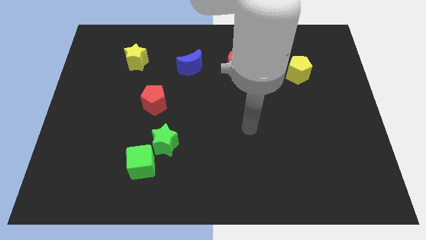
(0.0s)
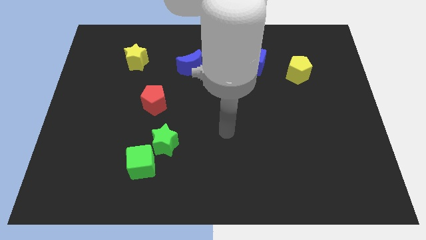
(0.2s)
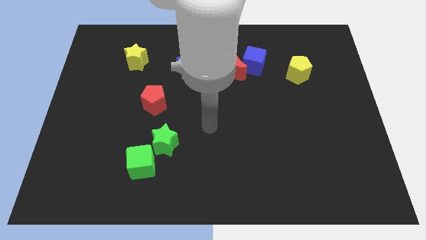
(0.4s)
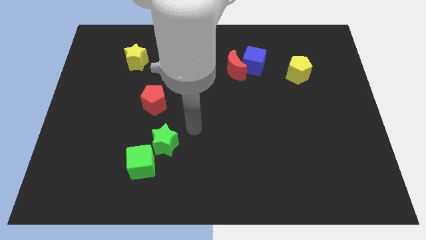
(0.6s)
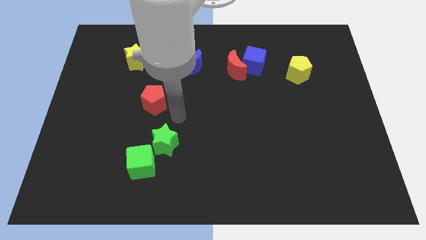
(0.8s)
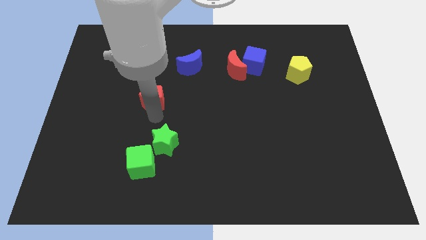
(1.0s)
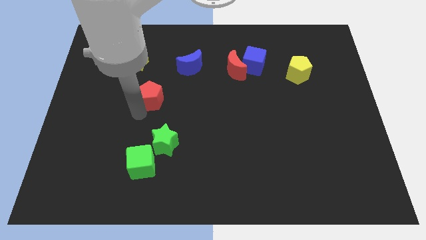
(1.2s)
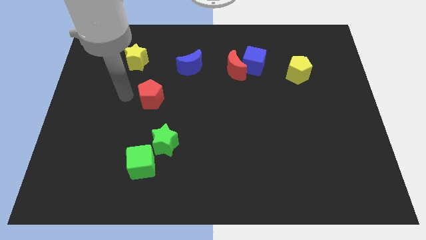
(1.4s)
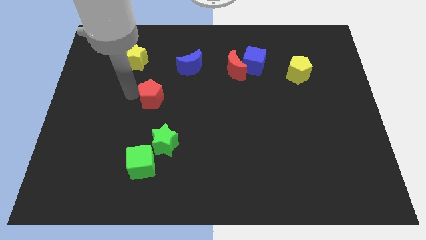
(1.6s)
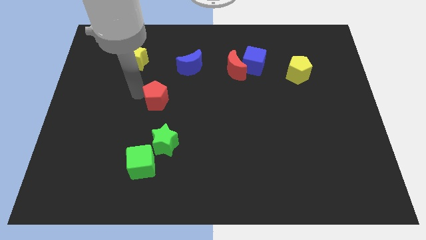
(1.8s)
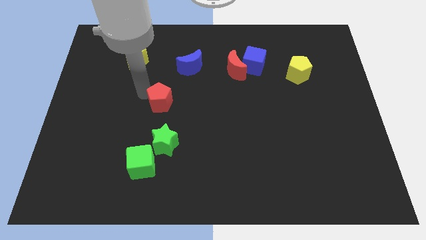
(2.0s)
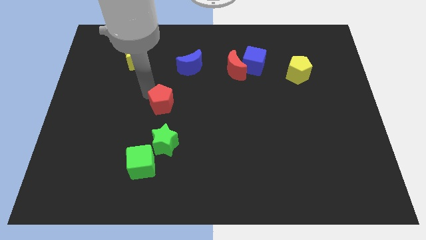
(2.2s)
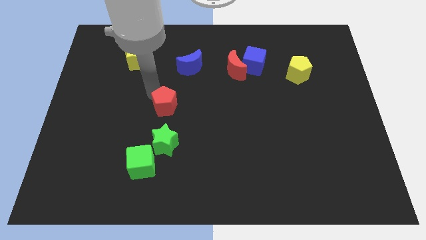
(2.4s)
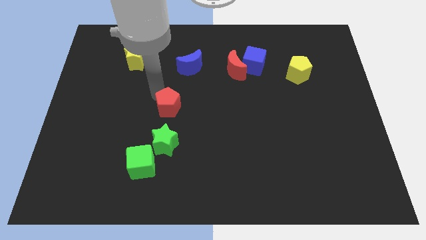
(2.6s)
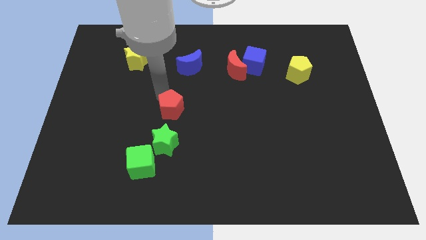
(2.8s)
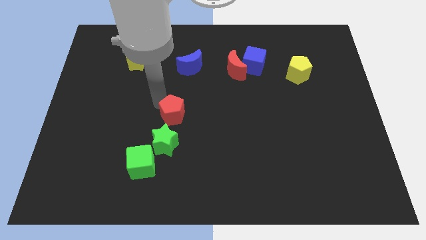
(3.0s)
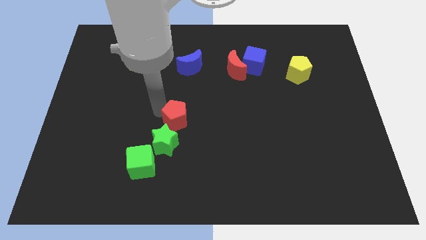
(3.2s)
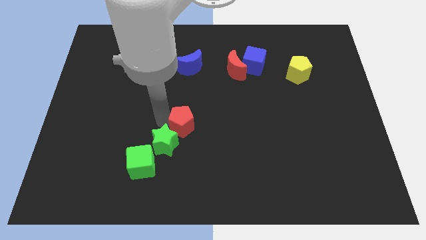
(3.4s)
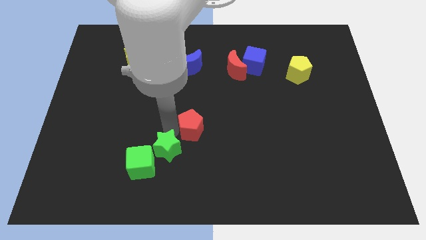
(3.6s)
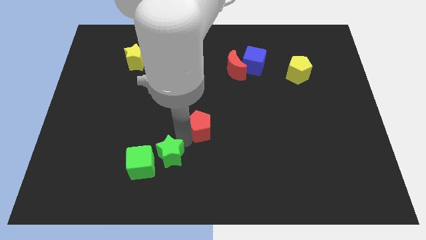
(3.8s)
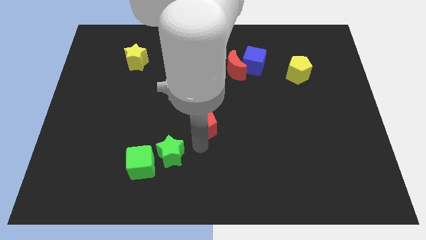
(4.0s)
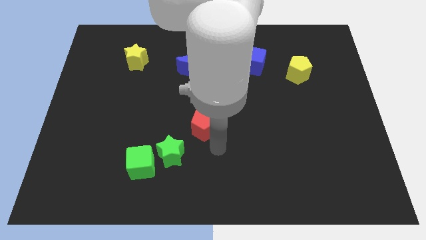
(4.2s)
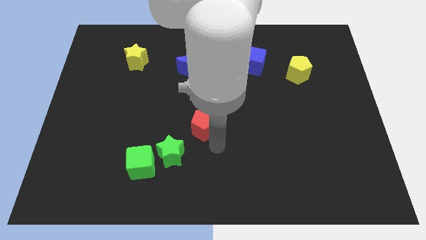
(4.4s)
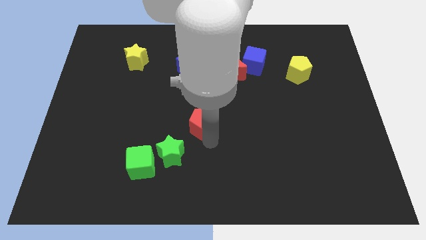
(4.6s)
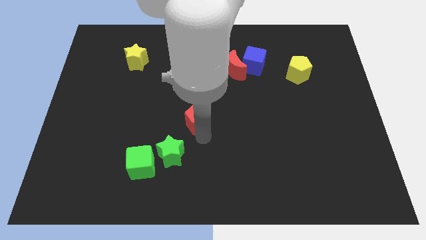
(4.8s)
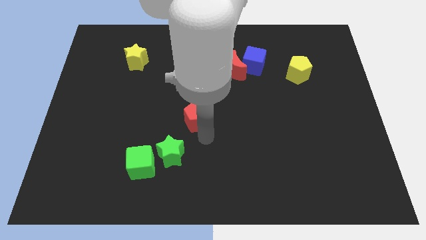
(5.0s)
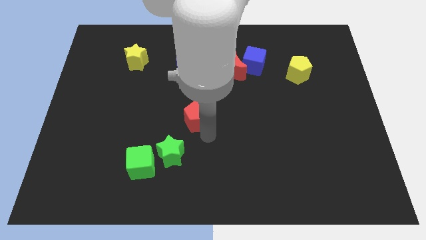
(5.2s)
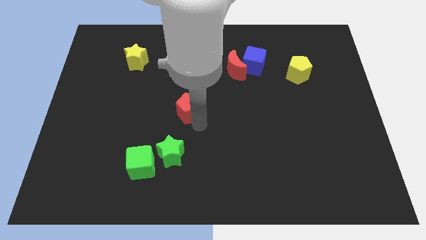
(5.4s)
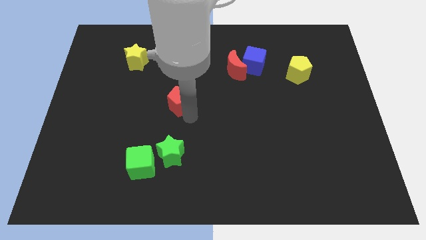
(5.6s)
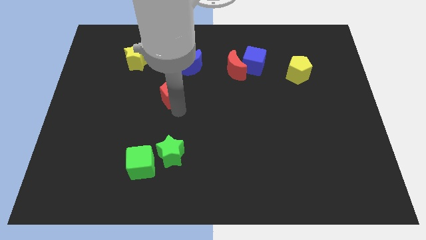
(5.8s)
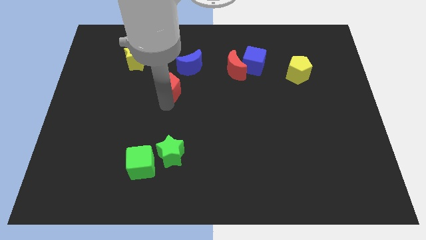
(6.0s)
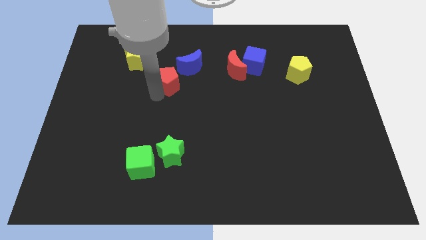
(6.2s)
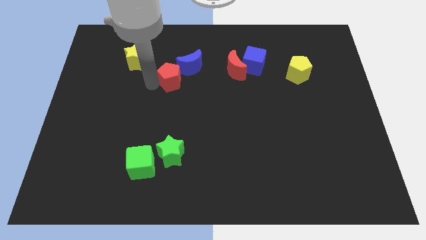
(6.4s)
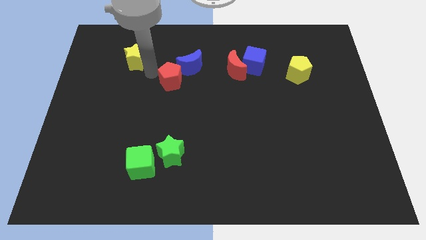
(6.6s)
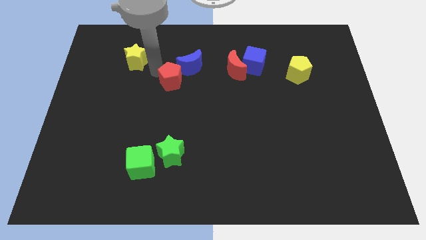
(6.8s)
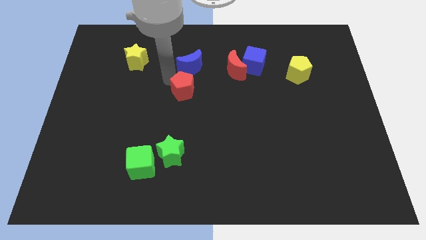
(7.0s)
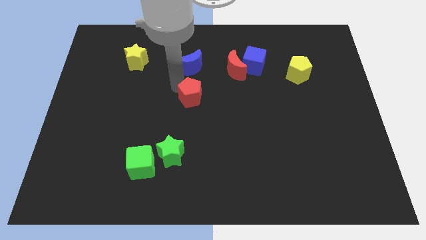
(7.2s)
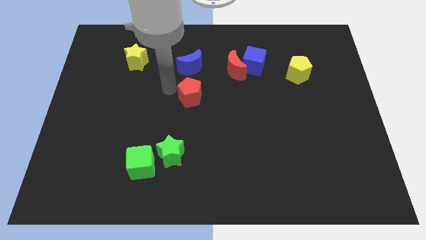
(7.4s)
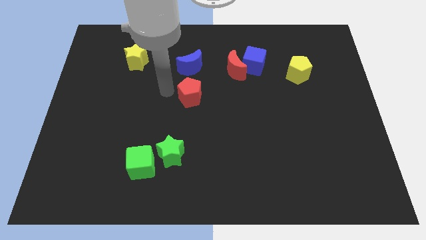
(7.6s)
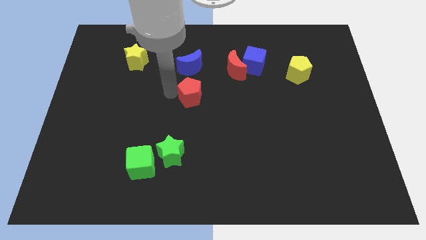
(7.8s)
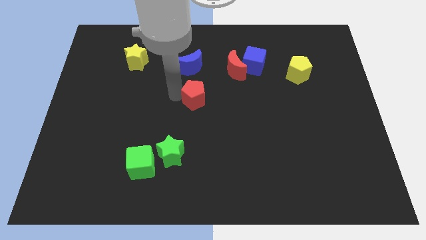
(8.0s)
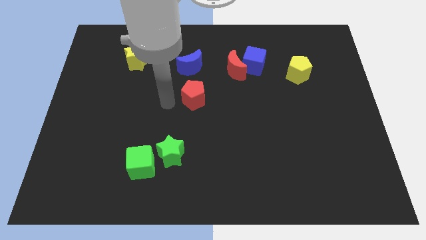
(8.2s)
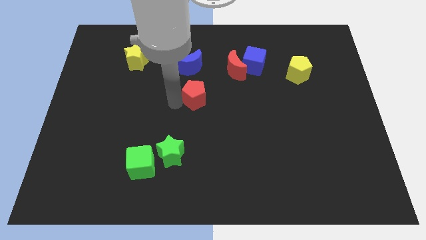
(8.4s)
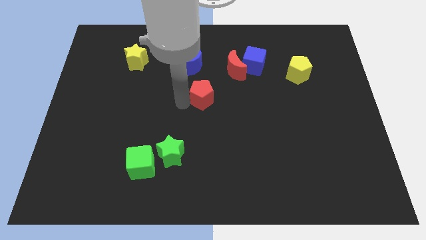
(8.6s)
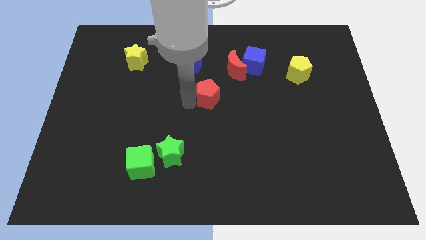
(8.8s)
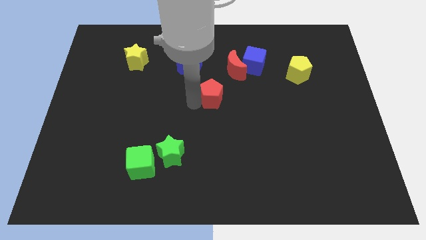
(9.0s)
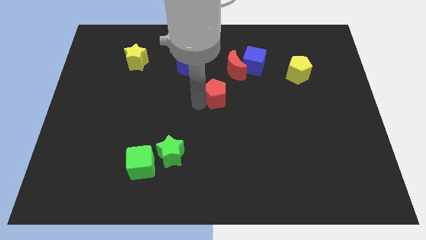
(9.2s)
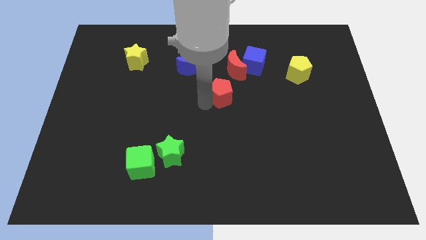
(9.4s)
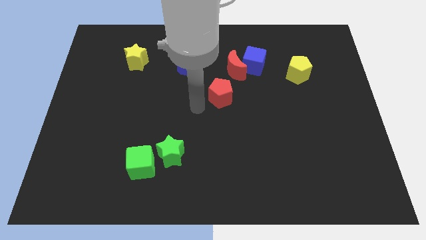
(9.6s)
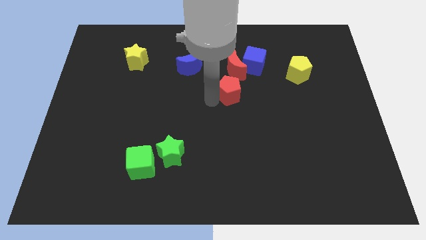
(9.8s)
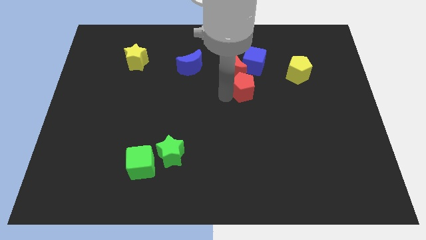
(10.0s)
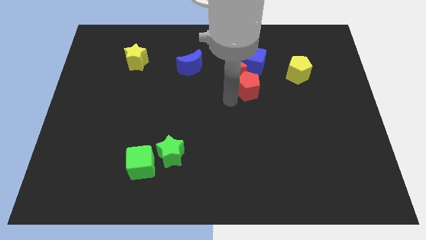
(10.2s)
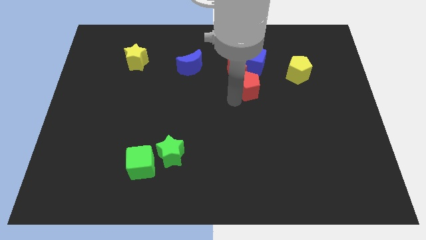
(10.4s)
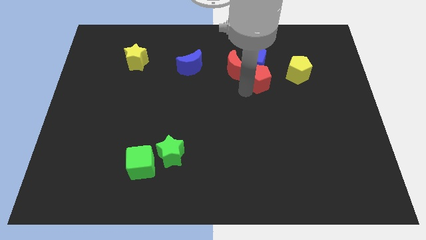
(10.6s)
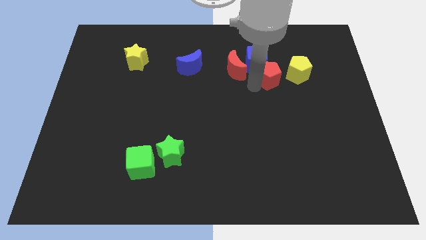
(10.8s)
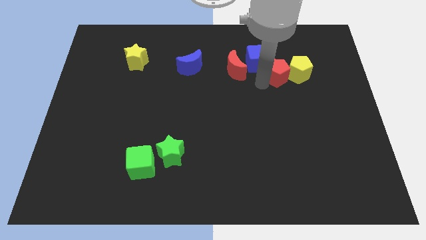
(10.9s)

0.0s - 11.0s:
move the red pentagon to the top left side of the yellow pentagon

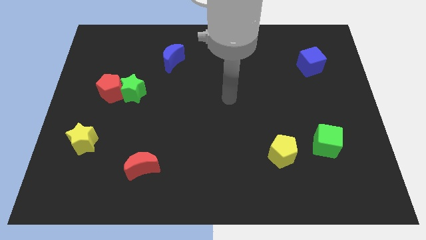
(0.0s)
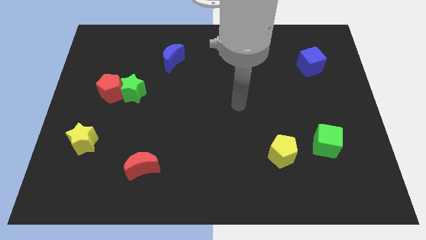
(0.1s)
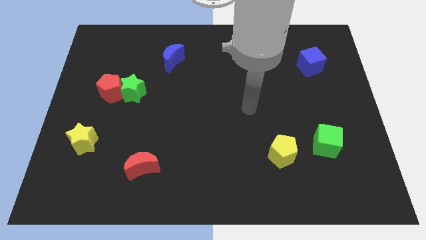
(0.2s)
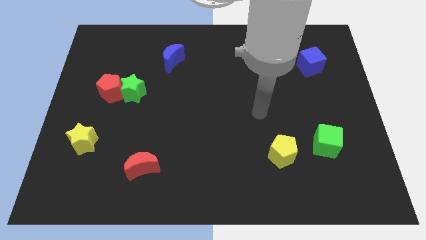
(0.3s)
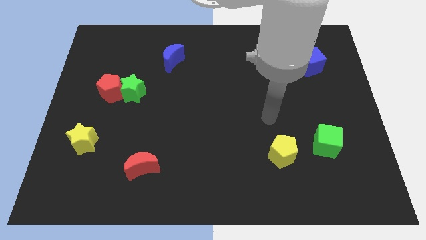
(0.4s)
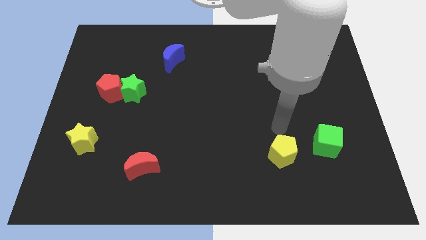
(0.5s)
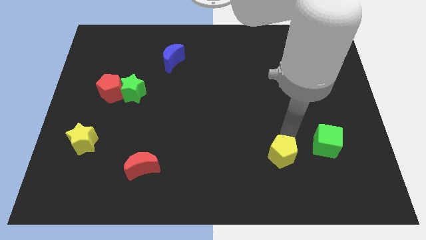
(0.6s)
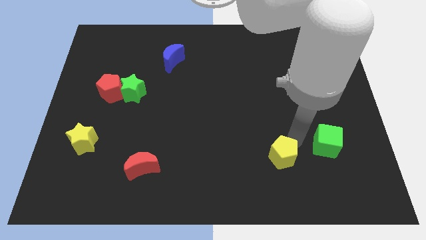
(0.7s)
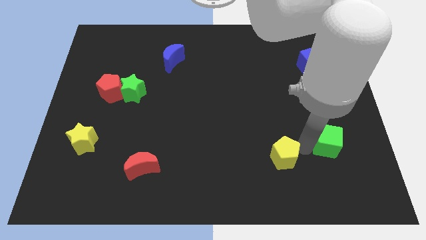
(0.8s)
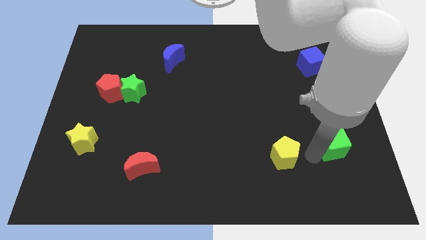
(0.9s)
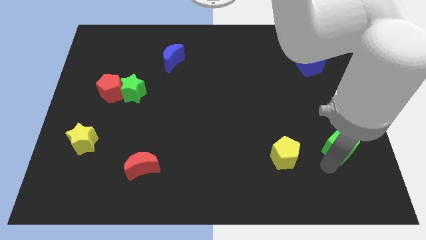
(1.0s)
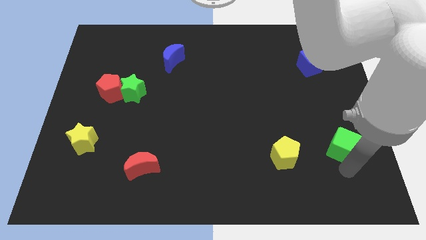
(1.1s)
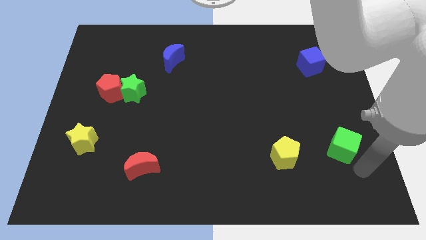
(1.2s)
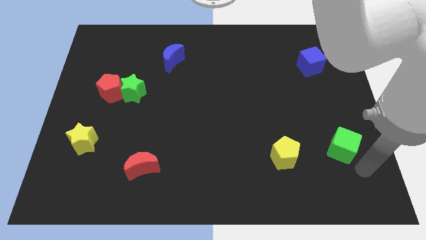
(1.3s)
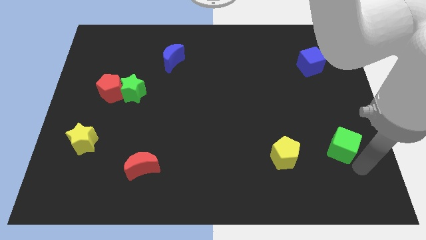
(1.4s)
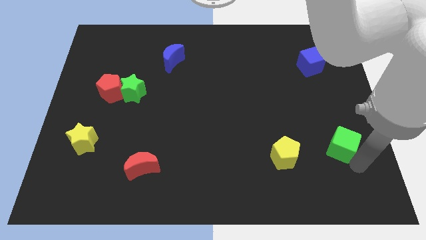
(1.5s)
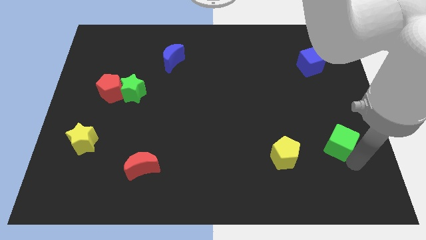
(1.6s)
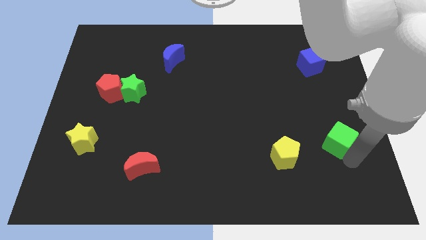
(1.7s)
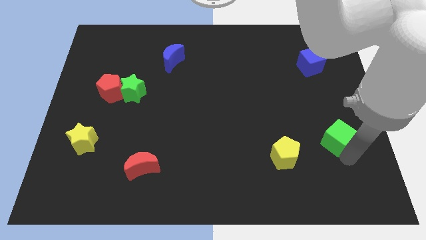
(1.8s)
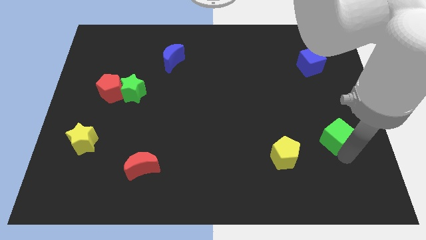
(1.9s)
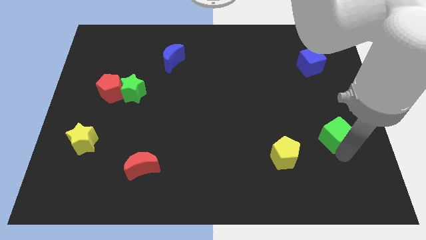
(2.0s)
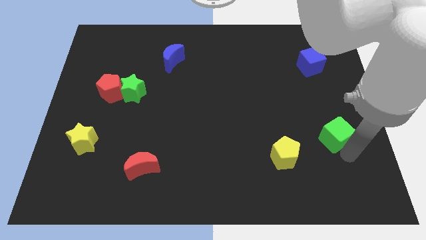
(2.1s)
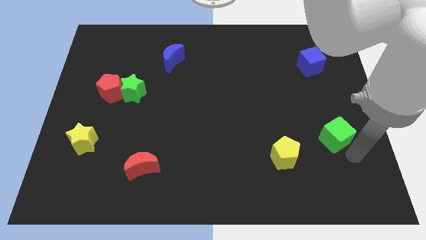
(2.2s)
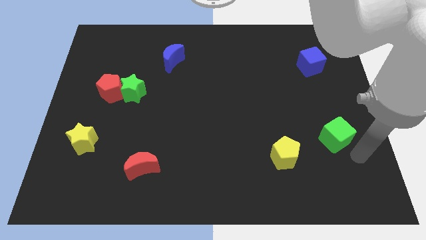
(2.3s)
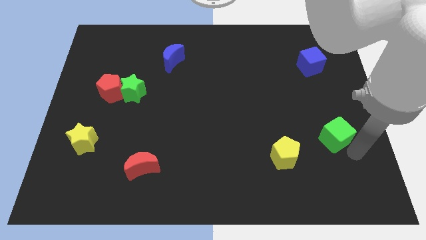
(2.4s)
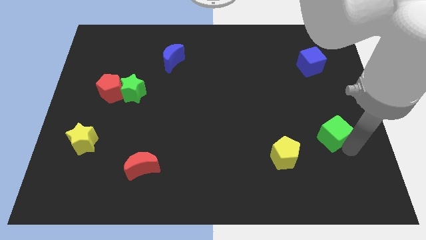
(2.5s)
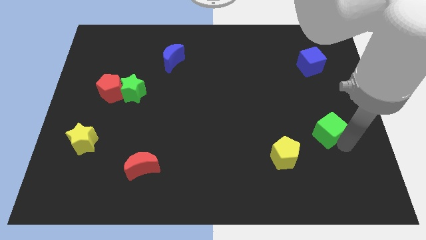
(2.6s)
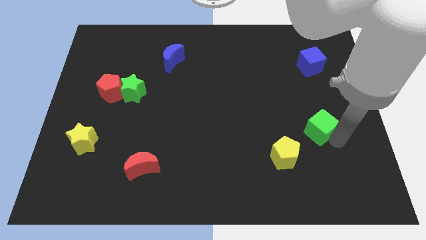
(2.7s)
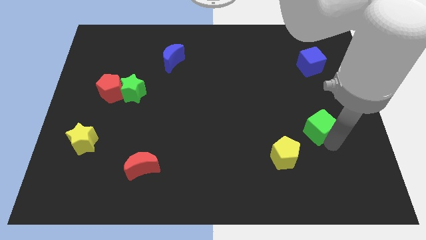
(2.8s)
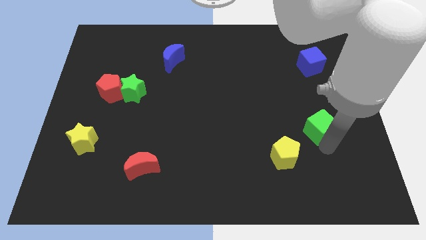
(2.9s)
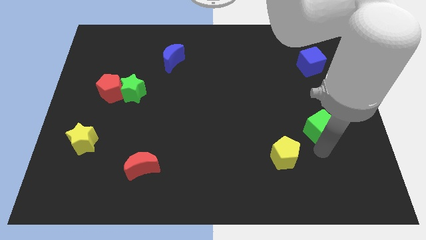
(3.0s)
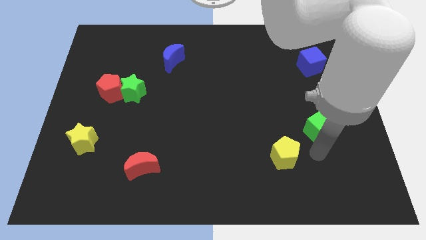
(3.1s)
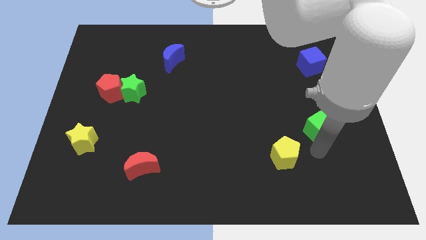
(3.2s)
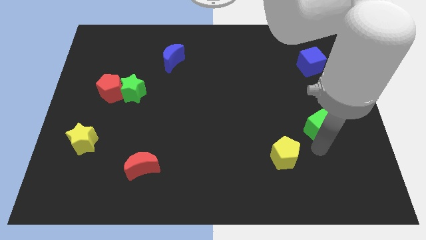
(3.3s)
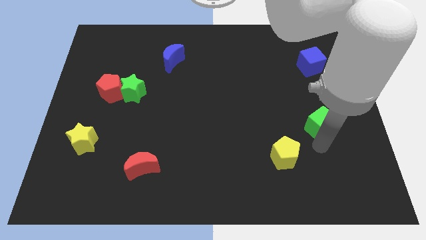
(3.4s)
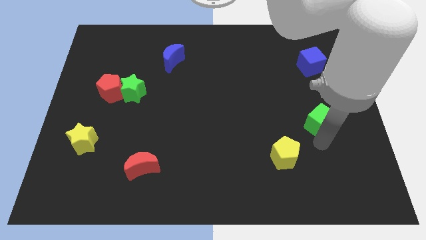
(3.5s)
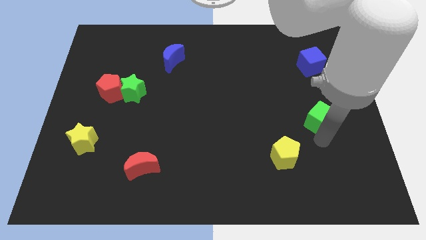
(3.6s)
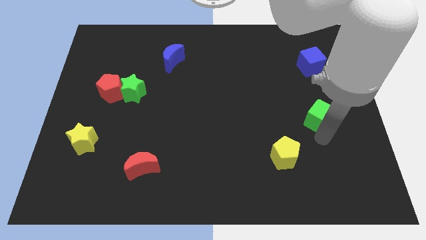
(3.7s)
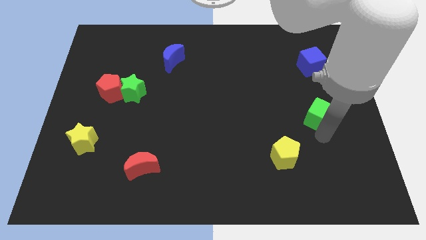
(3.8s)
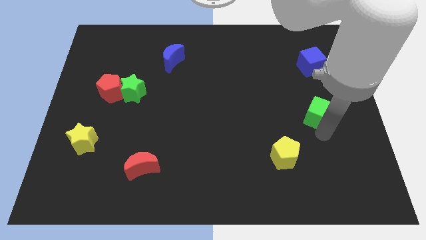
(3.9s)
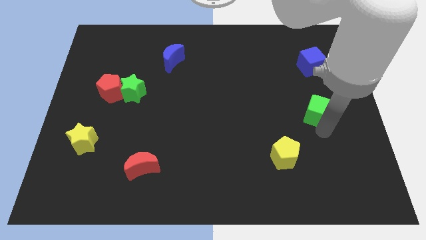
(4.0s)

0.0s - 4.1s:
put the green cube to the bottom of the blue cube
